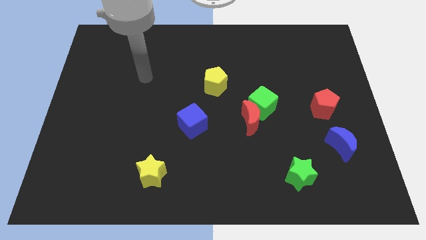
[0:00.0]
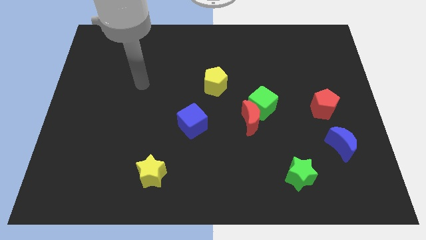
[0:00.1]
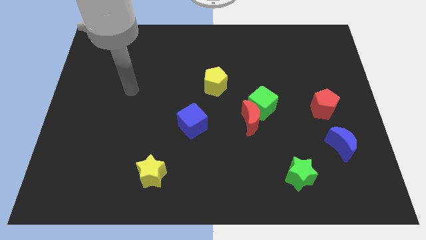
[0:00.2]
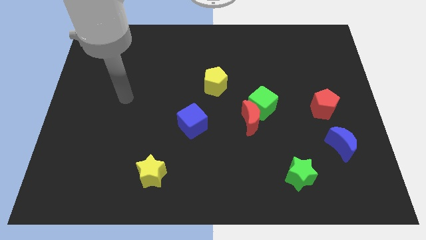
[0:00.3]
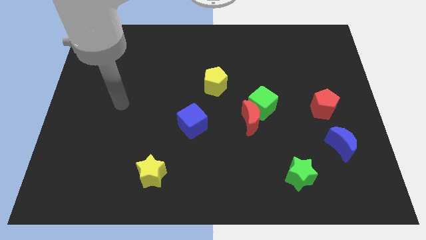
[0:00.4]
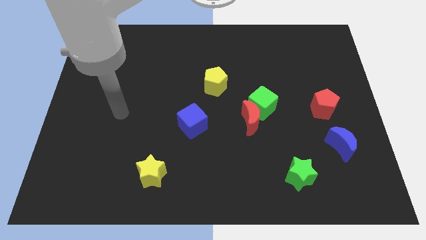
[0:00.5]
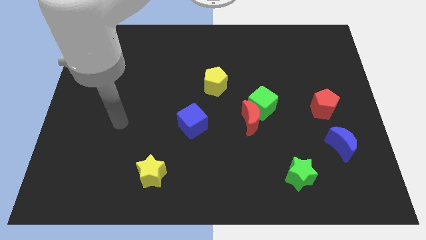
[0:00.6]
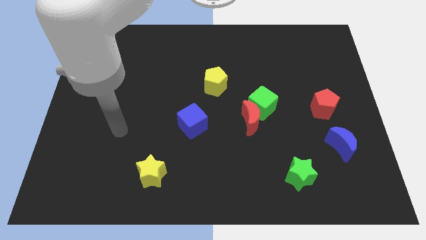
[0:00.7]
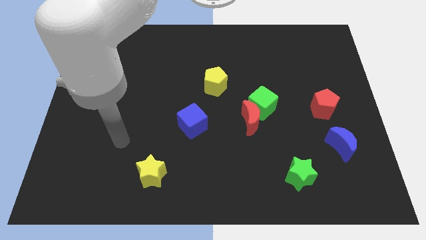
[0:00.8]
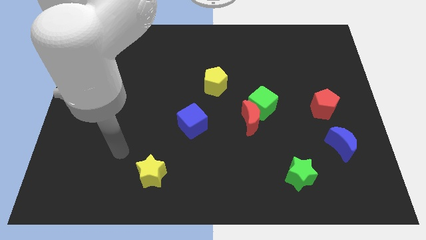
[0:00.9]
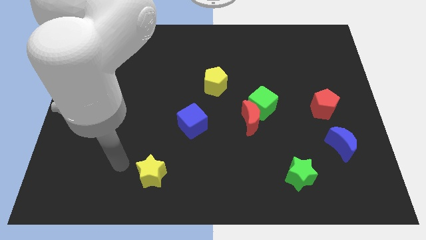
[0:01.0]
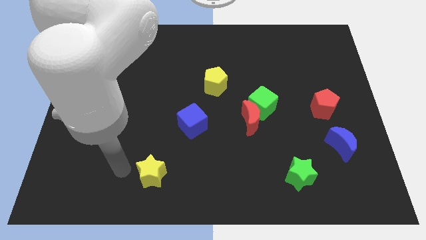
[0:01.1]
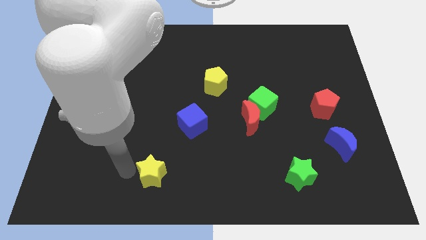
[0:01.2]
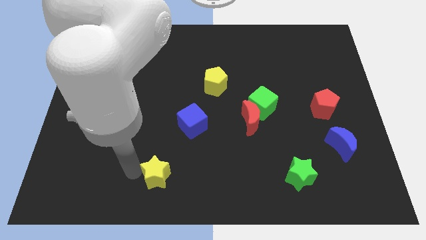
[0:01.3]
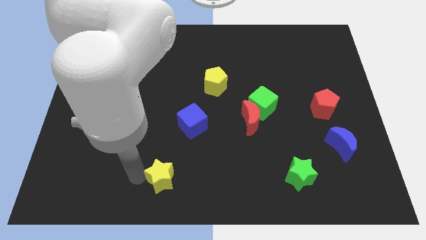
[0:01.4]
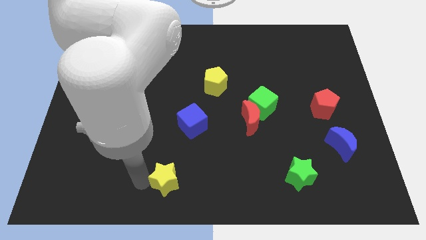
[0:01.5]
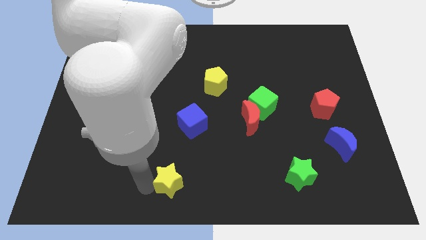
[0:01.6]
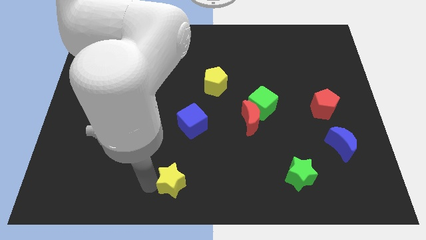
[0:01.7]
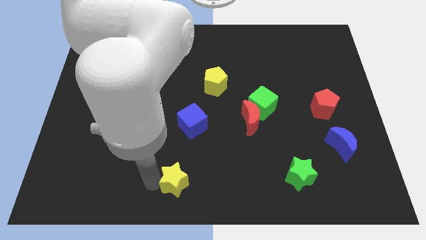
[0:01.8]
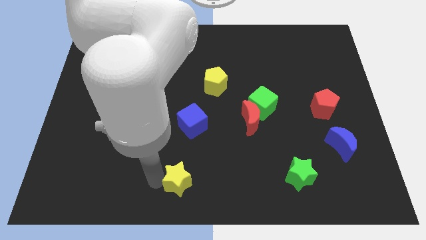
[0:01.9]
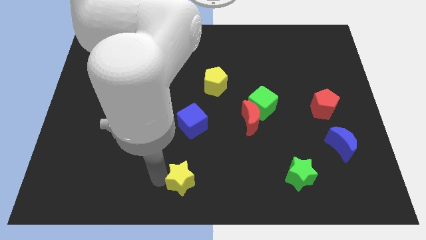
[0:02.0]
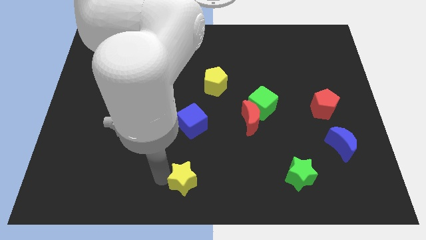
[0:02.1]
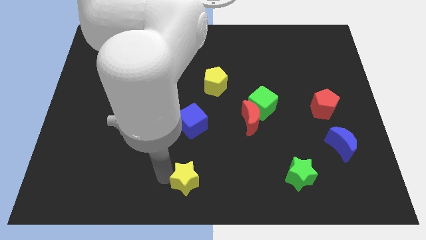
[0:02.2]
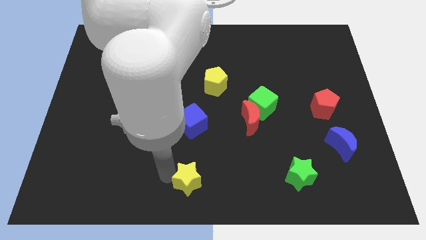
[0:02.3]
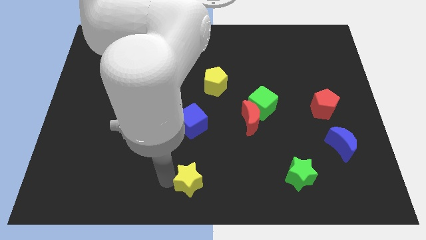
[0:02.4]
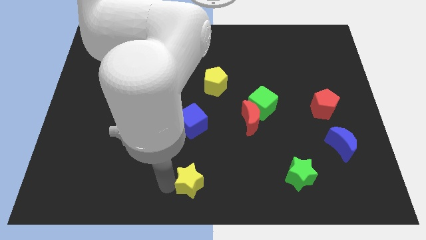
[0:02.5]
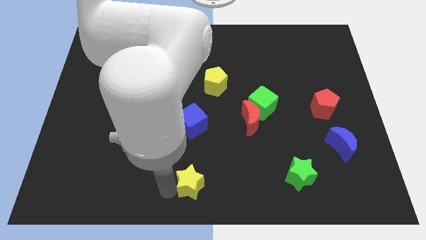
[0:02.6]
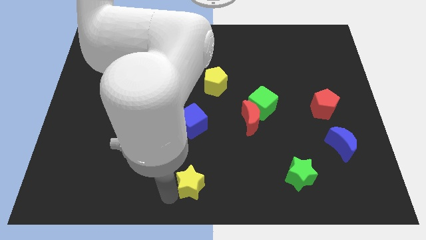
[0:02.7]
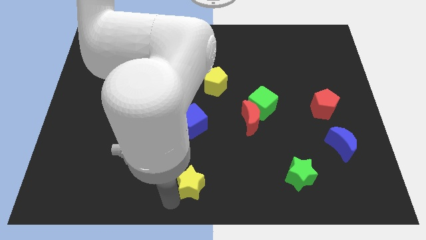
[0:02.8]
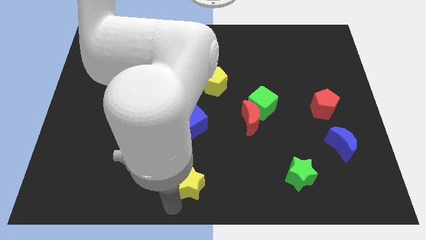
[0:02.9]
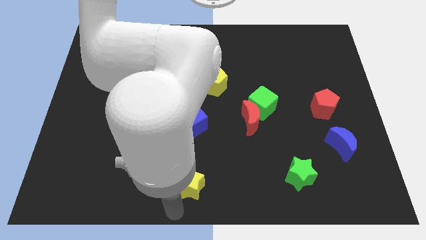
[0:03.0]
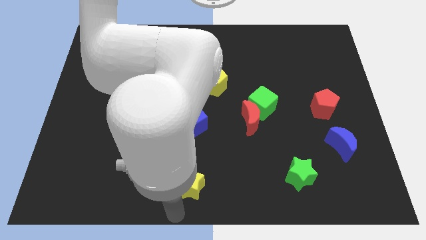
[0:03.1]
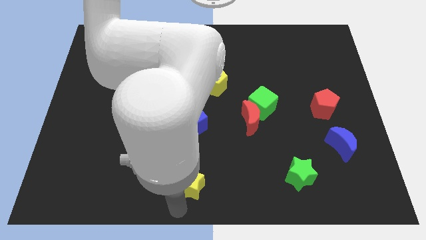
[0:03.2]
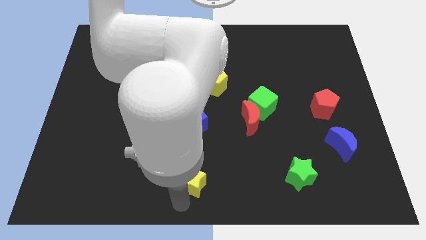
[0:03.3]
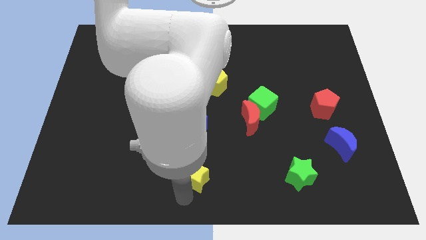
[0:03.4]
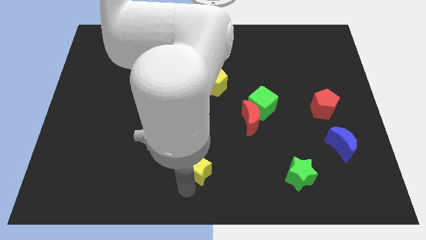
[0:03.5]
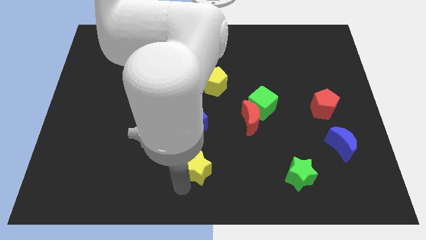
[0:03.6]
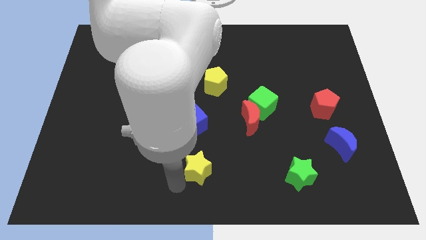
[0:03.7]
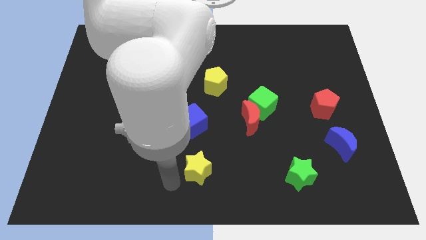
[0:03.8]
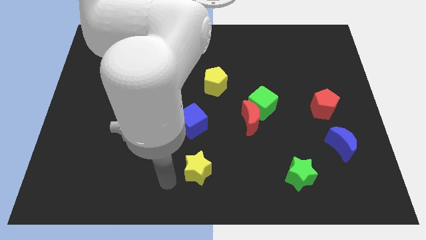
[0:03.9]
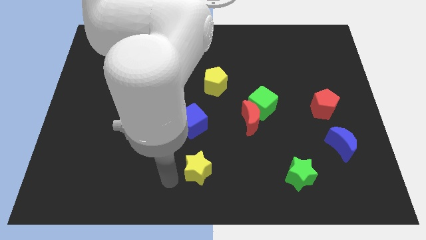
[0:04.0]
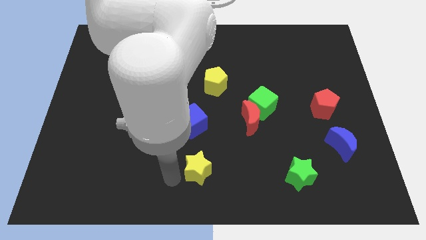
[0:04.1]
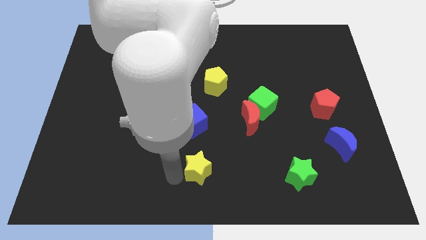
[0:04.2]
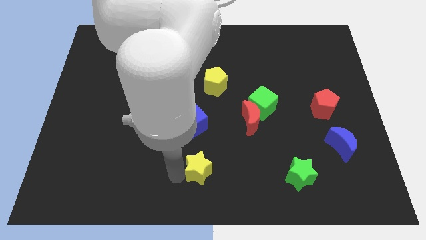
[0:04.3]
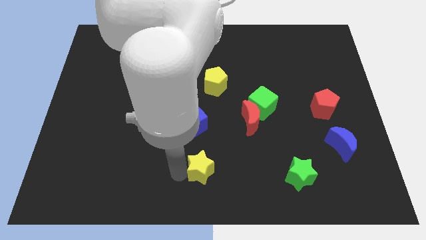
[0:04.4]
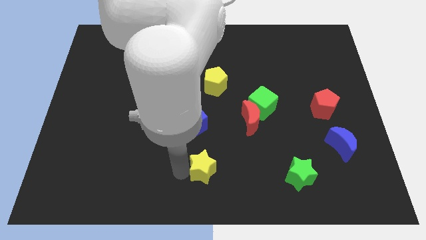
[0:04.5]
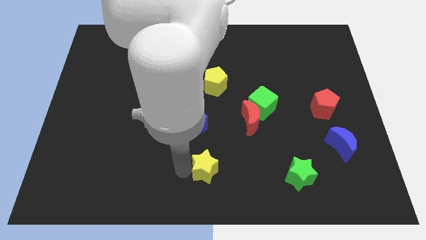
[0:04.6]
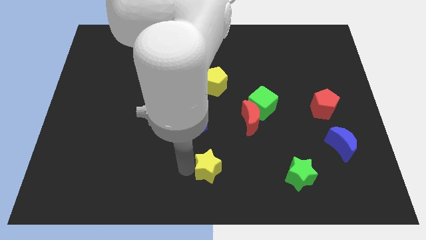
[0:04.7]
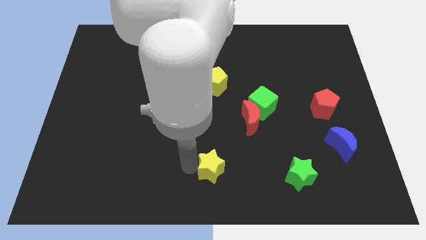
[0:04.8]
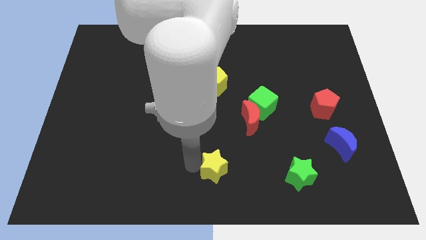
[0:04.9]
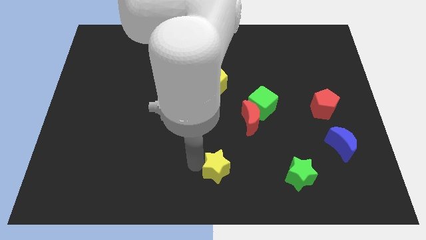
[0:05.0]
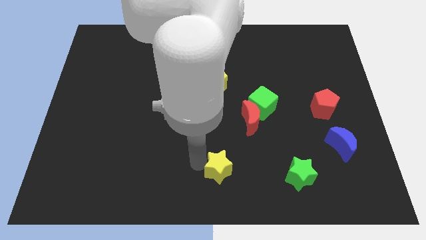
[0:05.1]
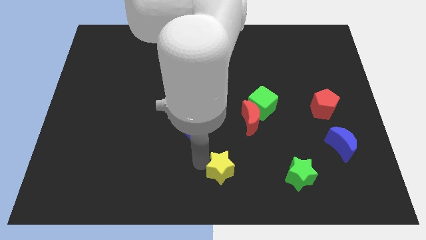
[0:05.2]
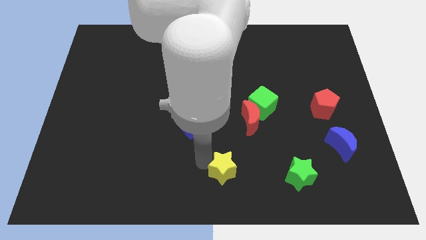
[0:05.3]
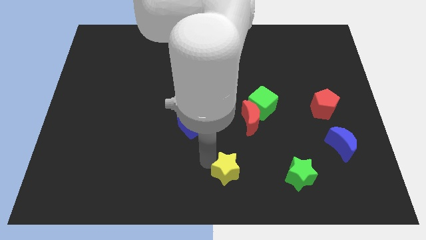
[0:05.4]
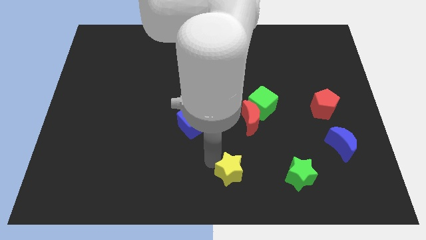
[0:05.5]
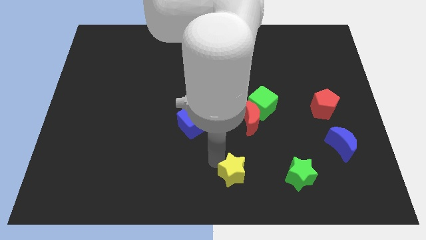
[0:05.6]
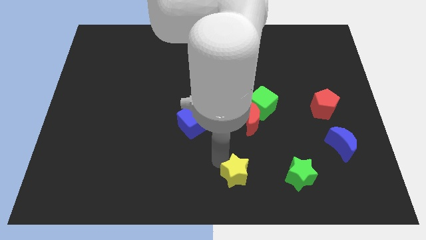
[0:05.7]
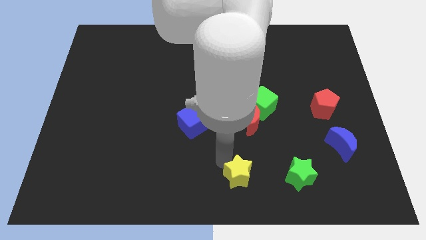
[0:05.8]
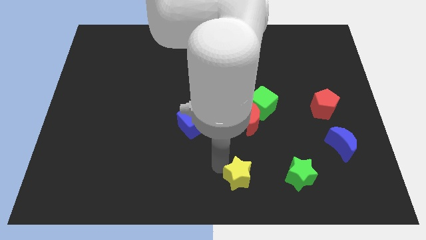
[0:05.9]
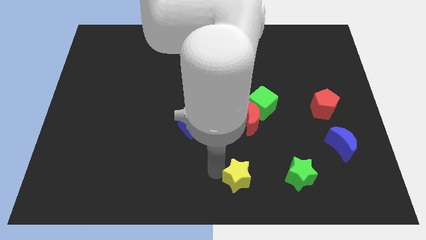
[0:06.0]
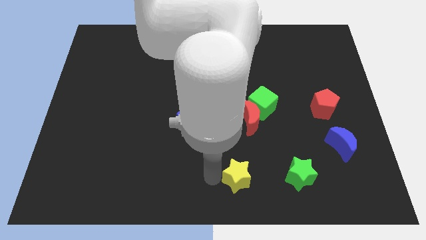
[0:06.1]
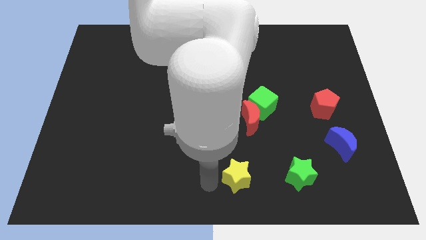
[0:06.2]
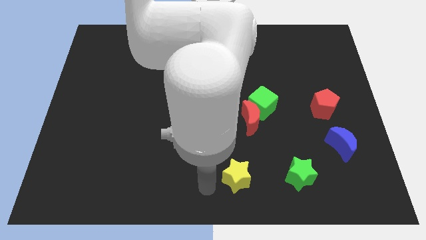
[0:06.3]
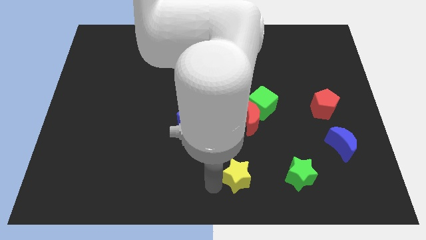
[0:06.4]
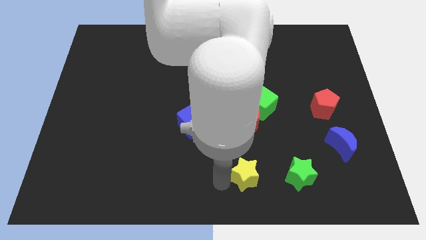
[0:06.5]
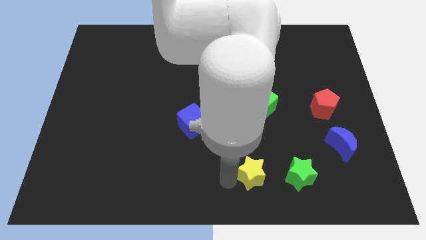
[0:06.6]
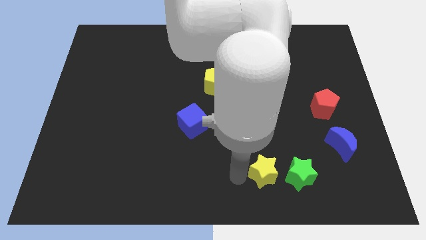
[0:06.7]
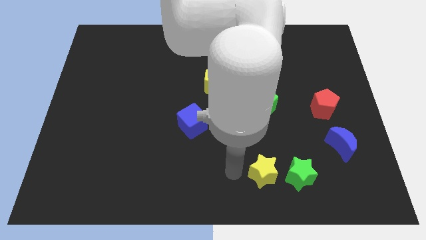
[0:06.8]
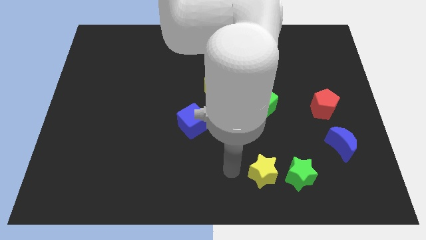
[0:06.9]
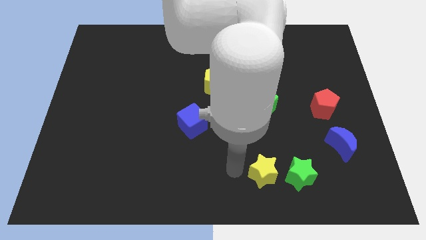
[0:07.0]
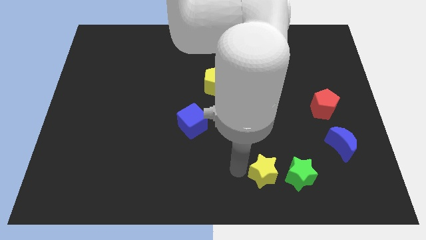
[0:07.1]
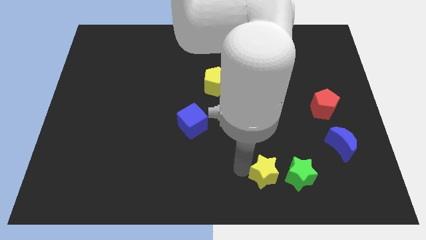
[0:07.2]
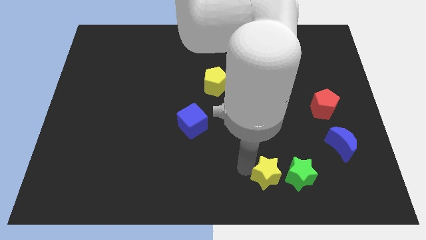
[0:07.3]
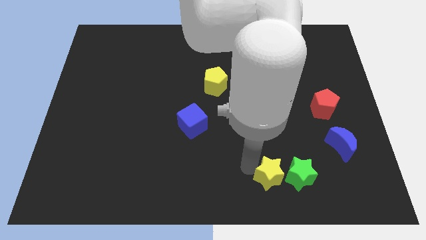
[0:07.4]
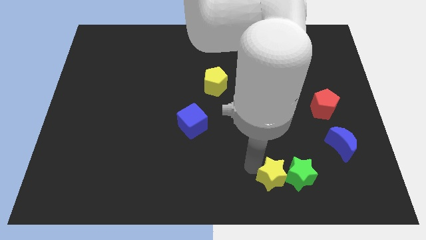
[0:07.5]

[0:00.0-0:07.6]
put the yellow star towards the green star
